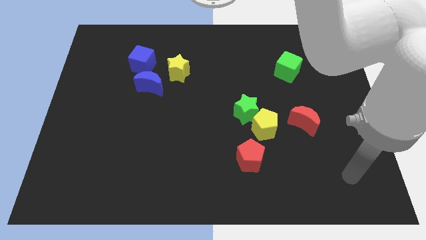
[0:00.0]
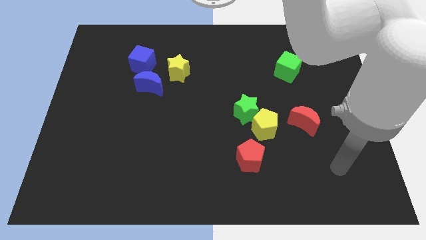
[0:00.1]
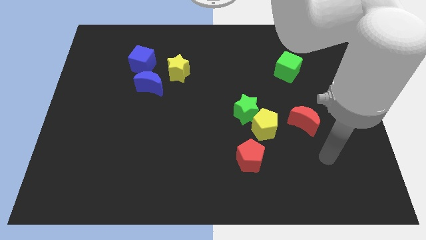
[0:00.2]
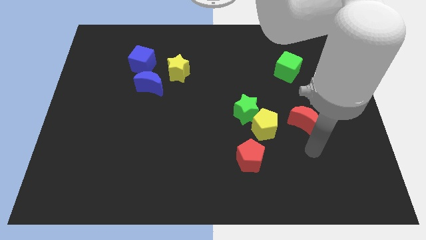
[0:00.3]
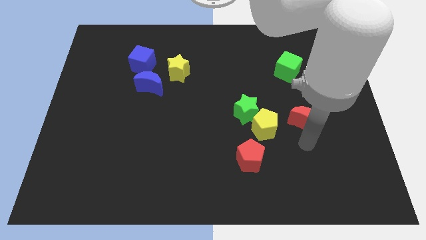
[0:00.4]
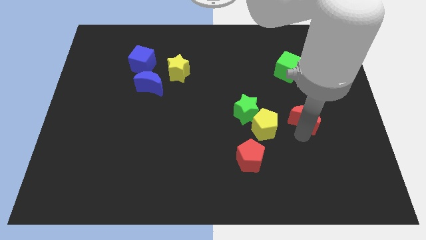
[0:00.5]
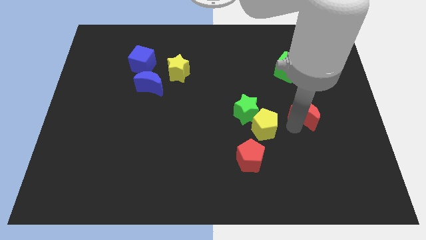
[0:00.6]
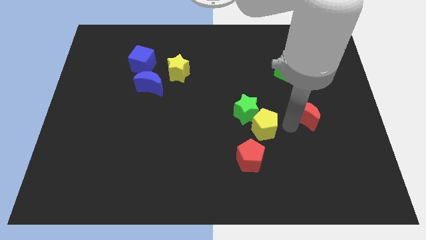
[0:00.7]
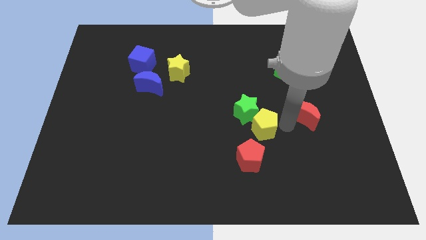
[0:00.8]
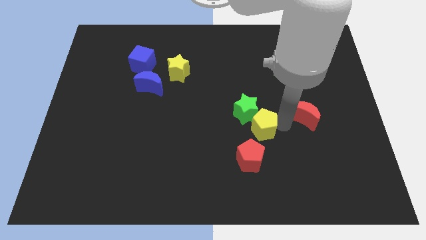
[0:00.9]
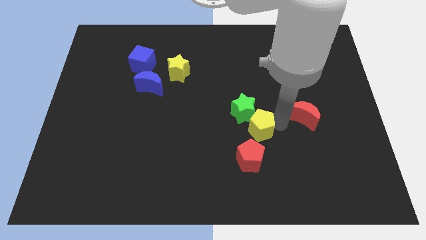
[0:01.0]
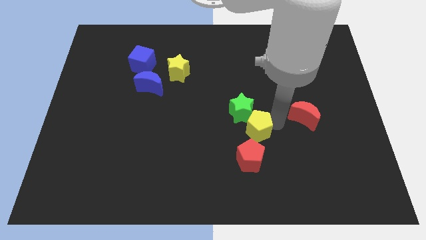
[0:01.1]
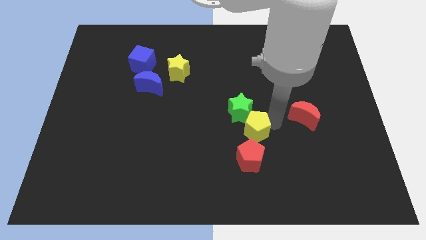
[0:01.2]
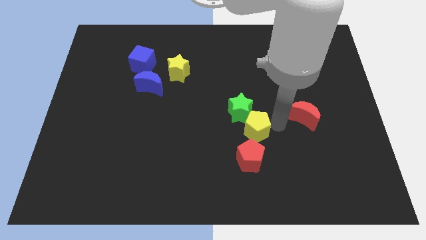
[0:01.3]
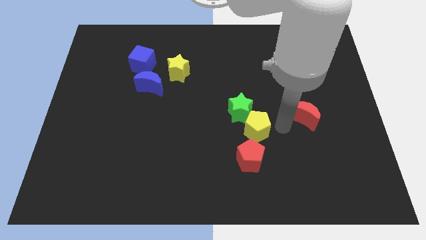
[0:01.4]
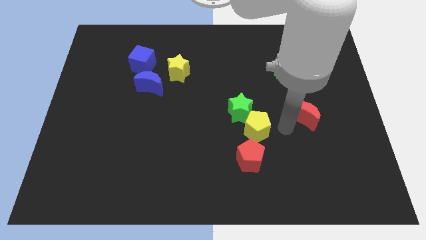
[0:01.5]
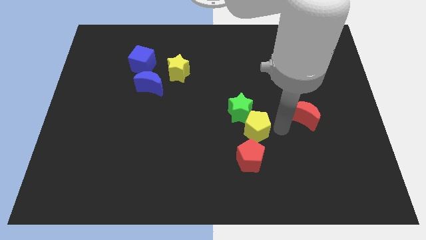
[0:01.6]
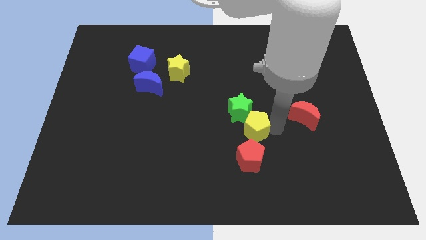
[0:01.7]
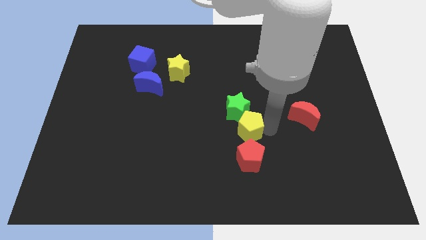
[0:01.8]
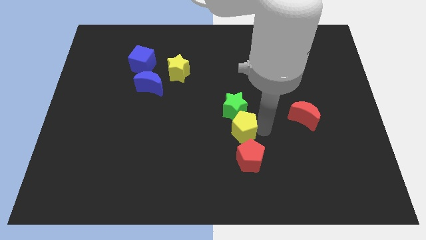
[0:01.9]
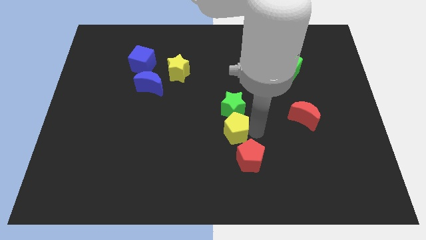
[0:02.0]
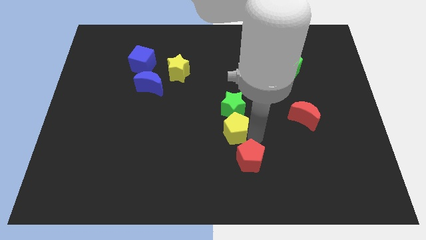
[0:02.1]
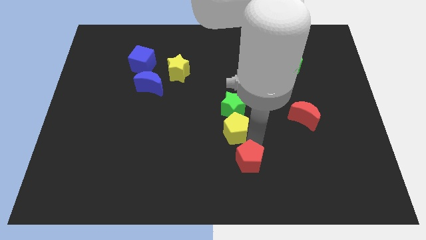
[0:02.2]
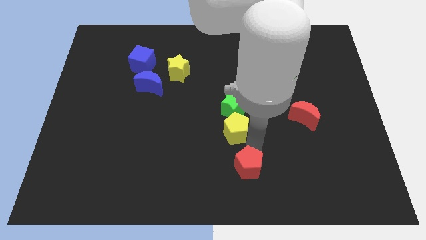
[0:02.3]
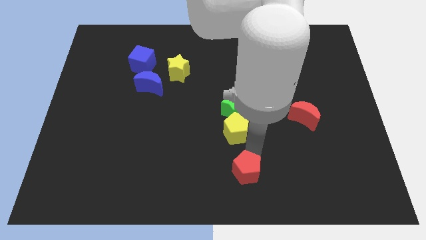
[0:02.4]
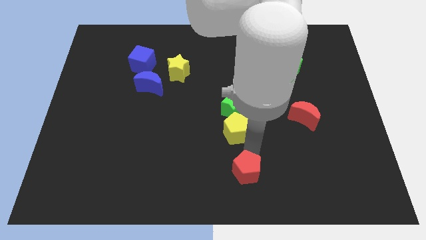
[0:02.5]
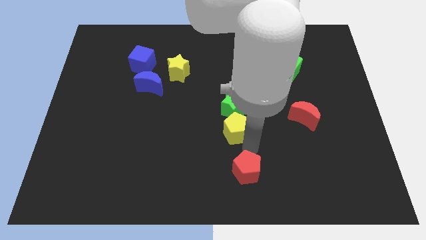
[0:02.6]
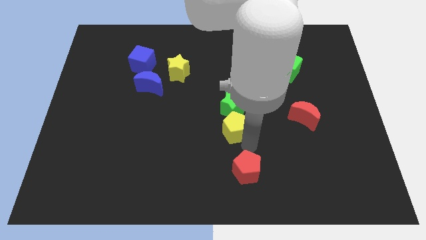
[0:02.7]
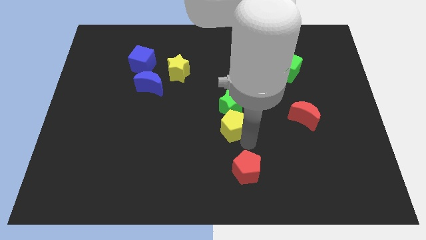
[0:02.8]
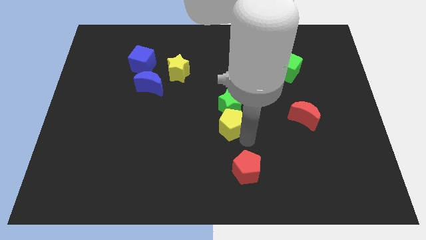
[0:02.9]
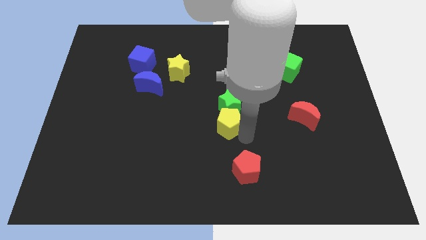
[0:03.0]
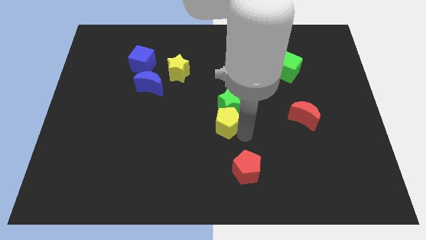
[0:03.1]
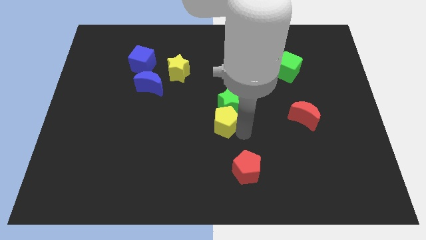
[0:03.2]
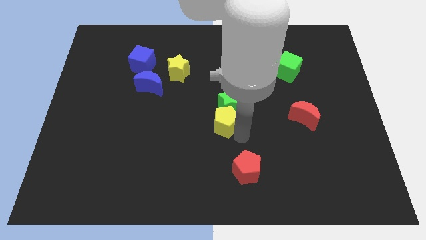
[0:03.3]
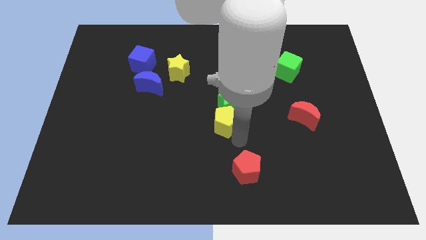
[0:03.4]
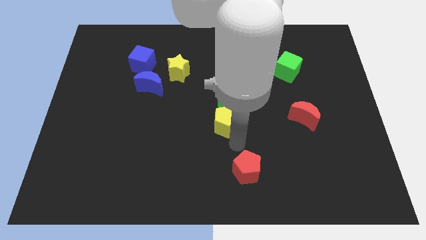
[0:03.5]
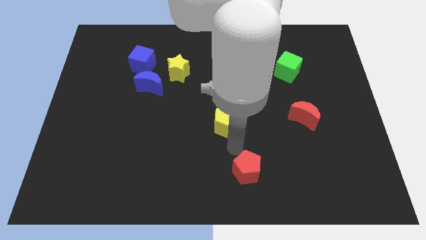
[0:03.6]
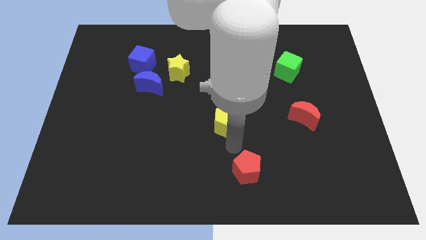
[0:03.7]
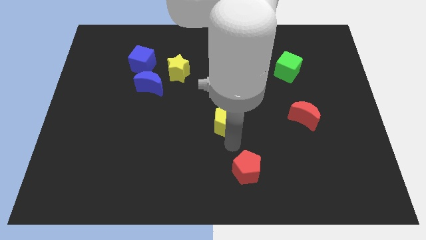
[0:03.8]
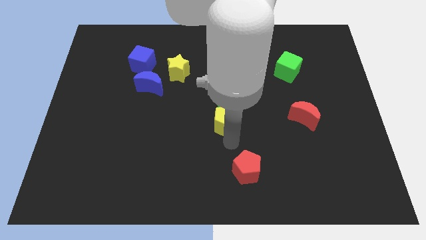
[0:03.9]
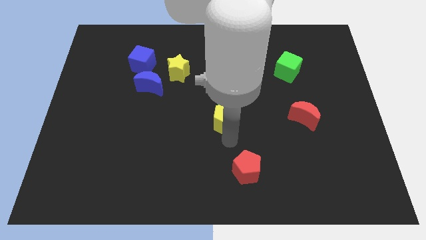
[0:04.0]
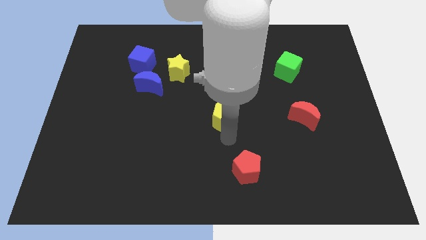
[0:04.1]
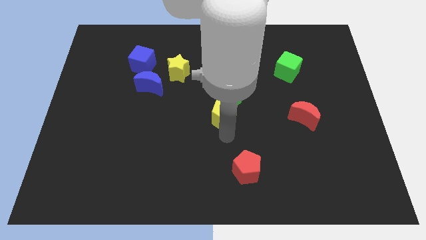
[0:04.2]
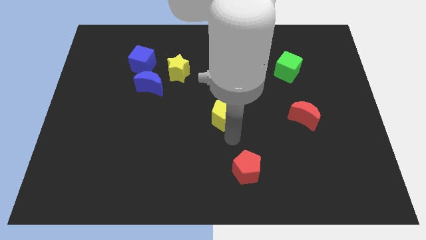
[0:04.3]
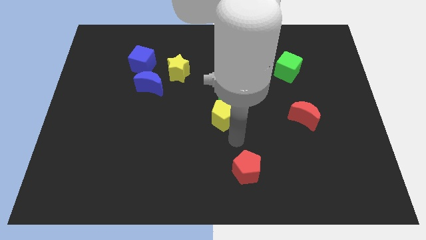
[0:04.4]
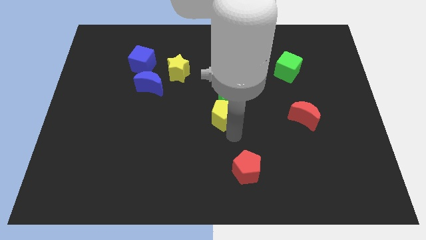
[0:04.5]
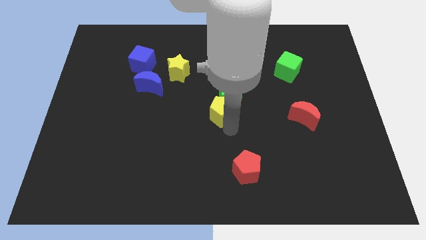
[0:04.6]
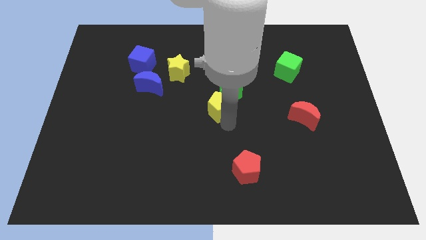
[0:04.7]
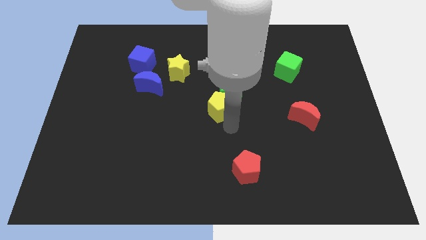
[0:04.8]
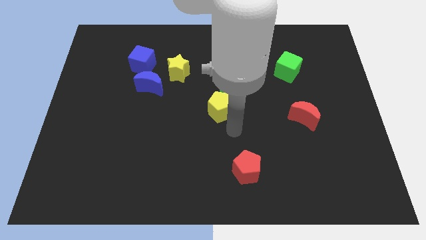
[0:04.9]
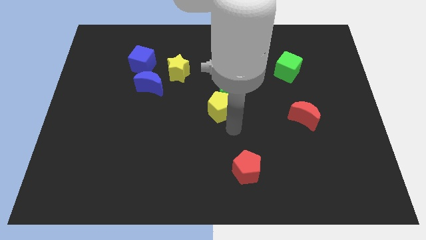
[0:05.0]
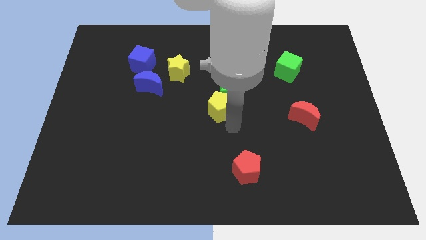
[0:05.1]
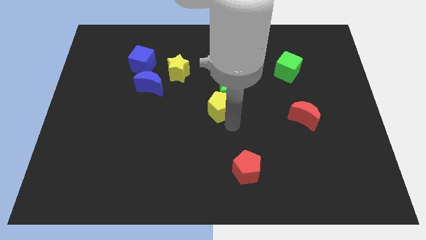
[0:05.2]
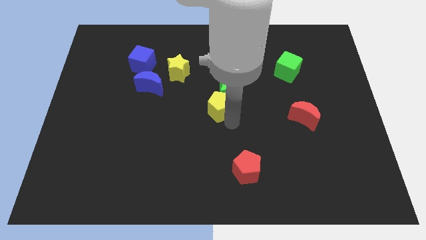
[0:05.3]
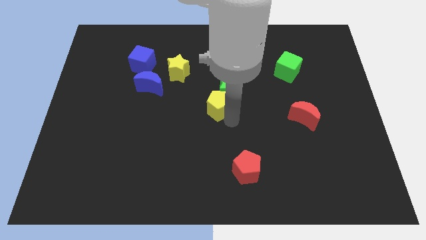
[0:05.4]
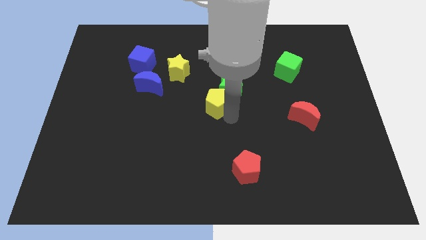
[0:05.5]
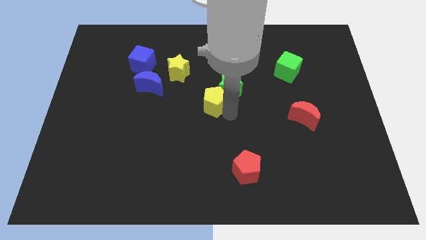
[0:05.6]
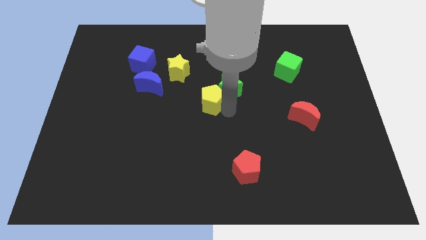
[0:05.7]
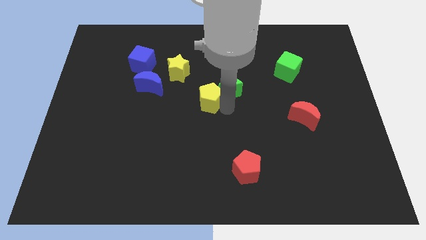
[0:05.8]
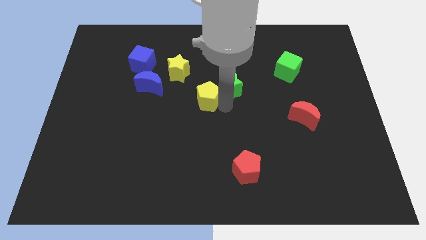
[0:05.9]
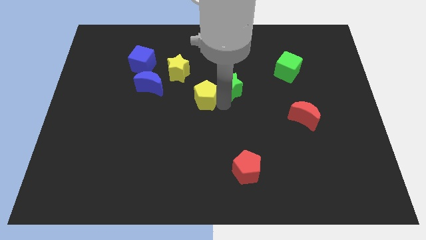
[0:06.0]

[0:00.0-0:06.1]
slide the yellow pentagon just right of the blue moon

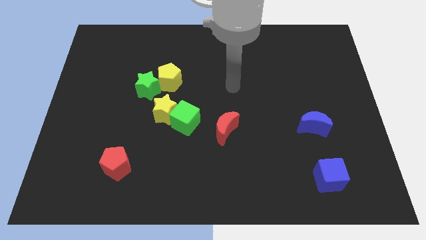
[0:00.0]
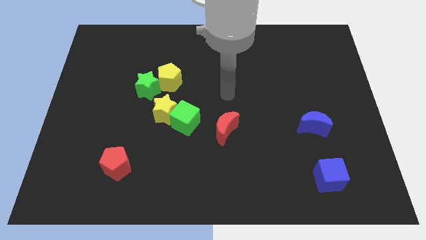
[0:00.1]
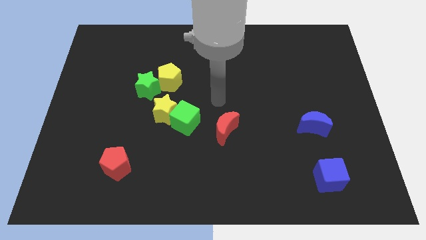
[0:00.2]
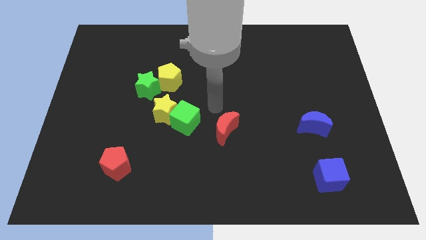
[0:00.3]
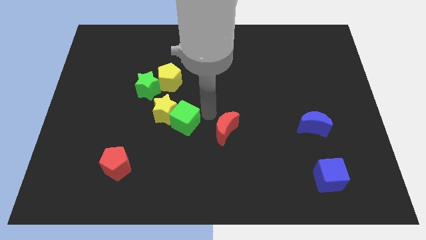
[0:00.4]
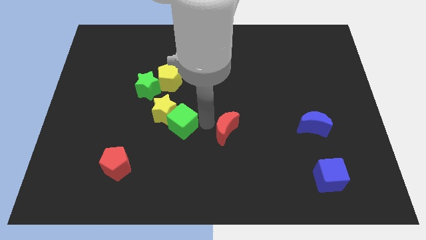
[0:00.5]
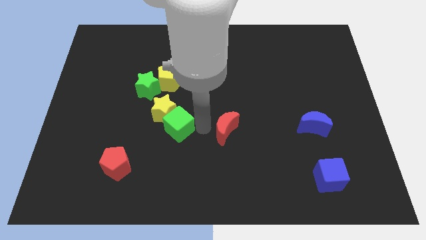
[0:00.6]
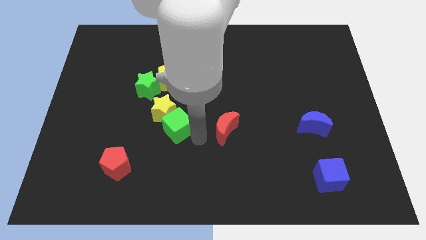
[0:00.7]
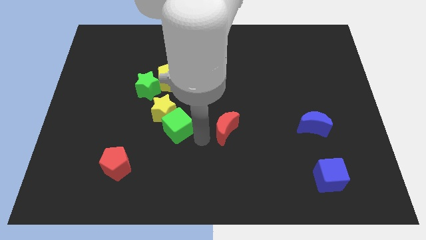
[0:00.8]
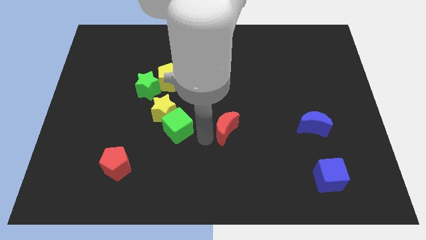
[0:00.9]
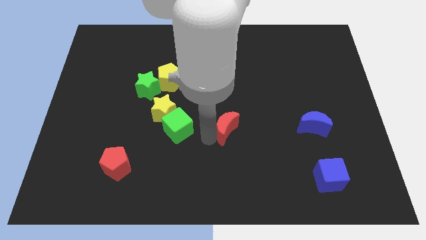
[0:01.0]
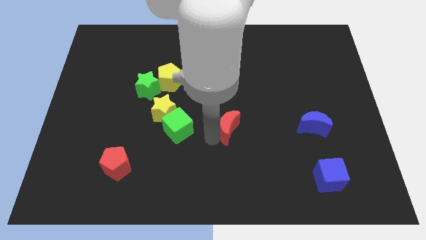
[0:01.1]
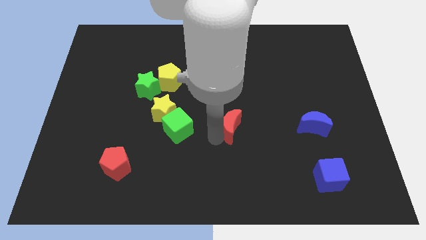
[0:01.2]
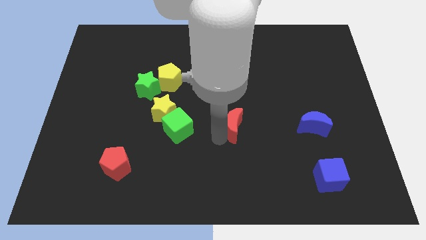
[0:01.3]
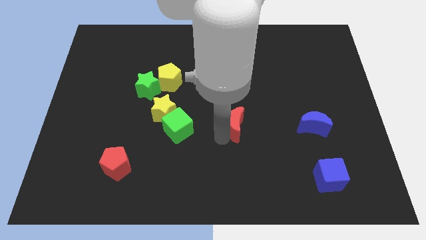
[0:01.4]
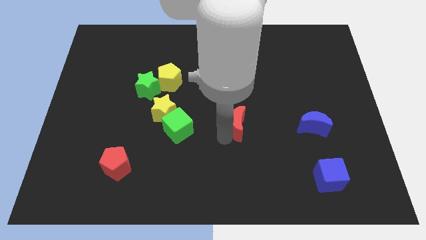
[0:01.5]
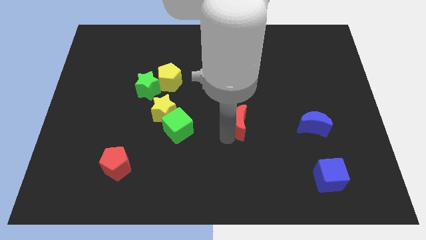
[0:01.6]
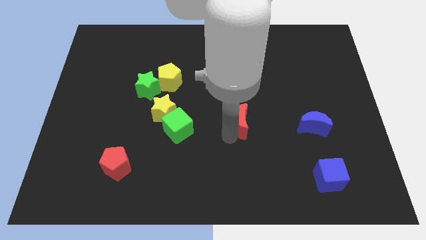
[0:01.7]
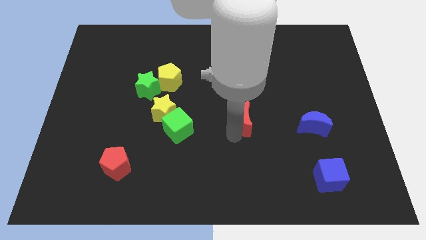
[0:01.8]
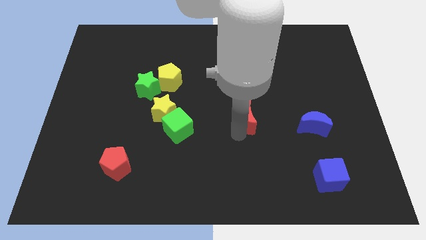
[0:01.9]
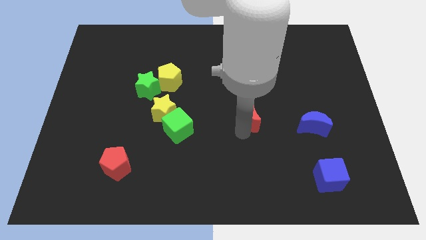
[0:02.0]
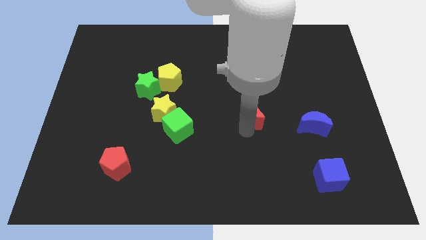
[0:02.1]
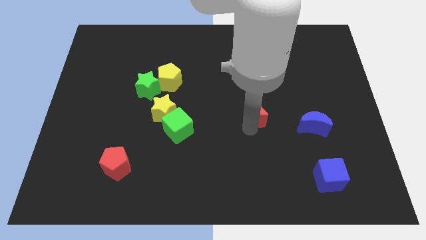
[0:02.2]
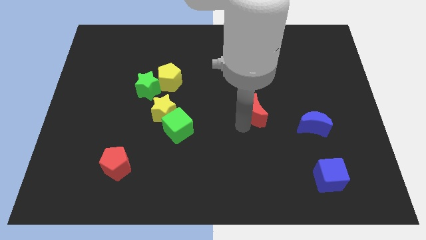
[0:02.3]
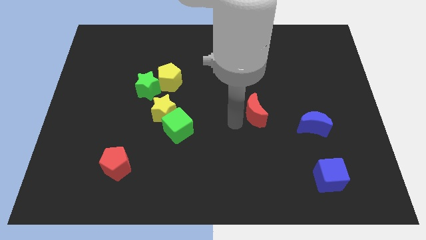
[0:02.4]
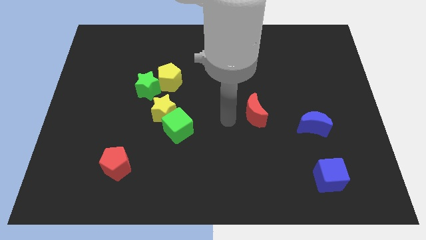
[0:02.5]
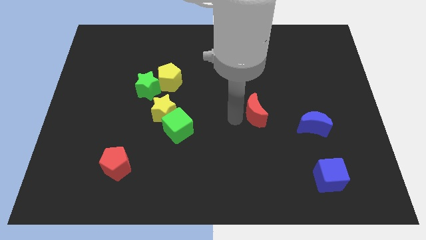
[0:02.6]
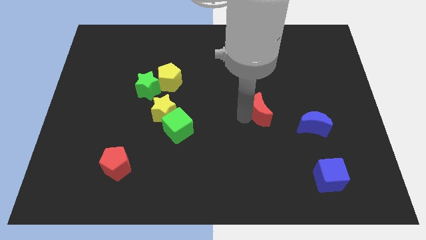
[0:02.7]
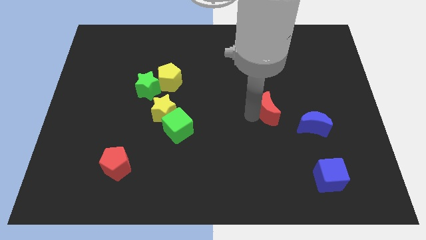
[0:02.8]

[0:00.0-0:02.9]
put the red moon to the top left of the blue moon
